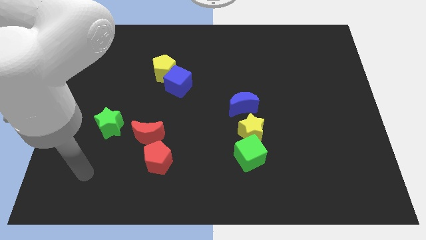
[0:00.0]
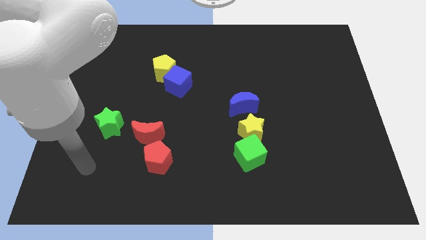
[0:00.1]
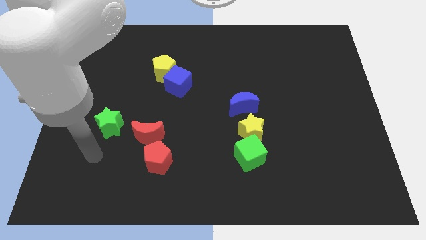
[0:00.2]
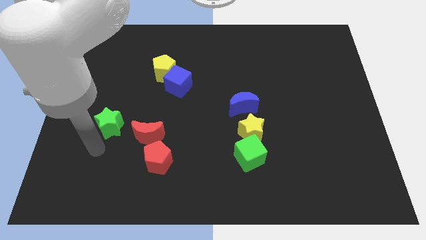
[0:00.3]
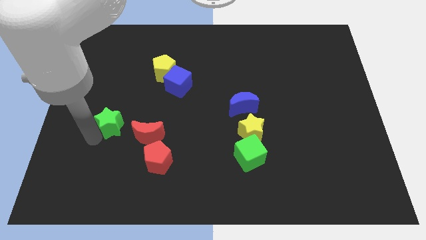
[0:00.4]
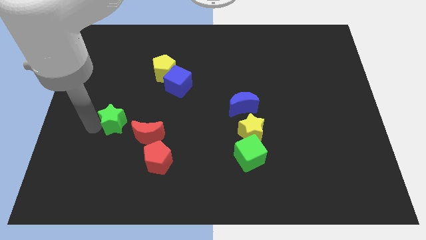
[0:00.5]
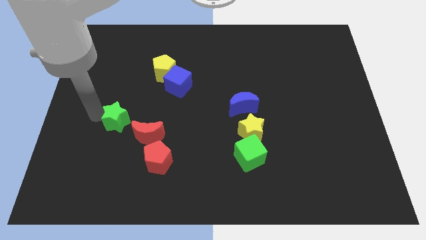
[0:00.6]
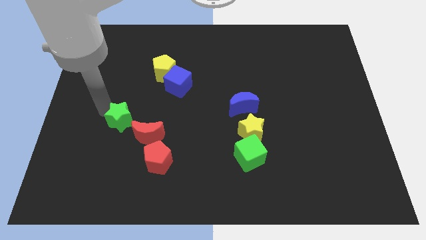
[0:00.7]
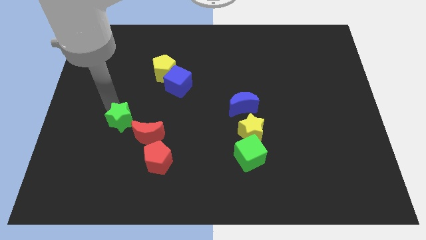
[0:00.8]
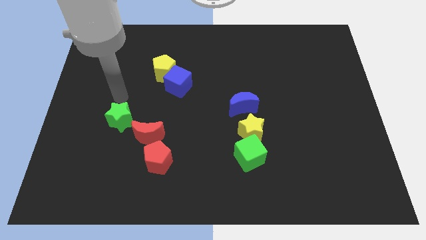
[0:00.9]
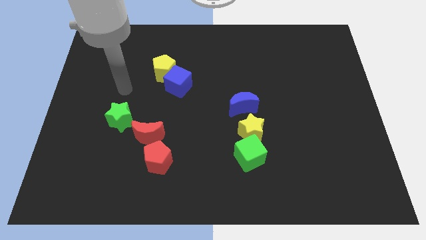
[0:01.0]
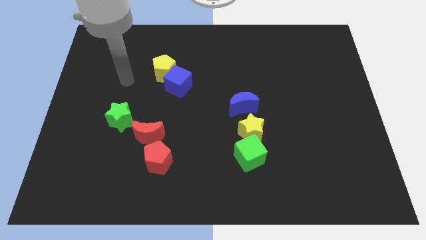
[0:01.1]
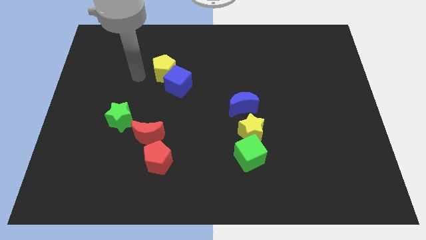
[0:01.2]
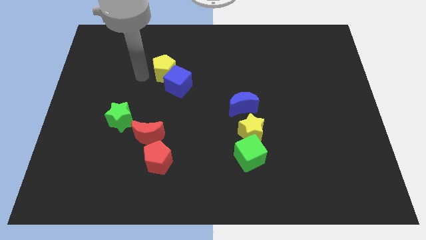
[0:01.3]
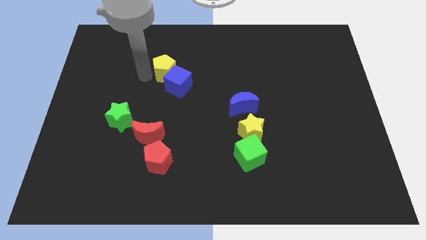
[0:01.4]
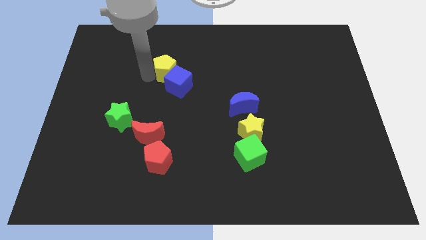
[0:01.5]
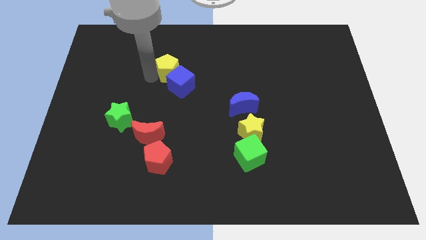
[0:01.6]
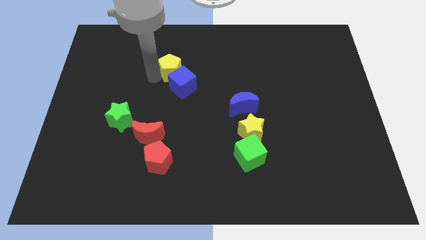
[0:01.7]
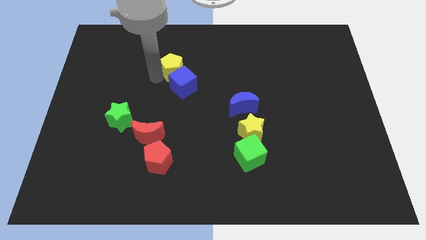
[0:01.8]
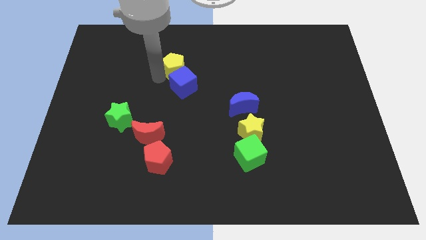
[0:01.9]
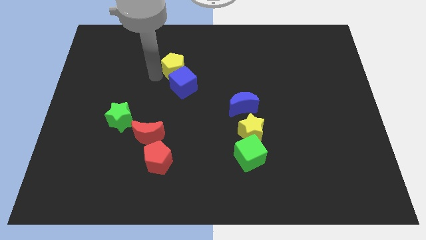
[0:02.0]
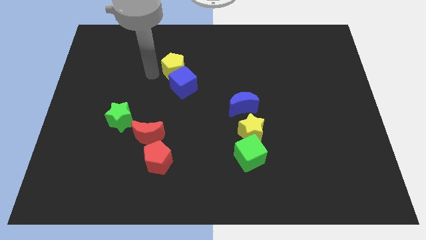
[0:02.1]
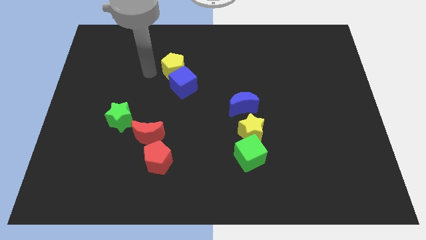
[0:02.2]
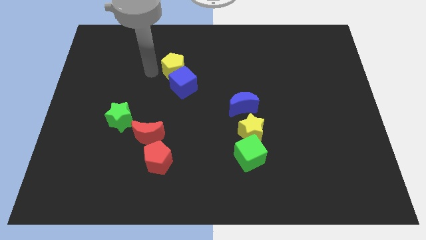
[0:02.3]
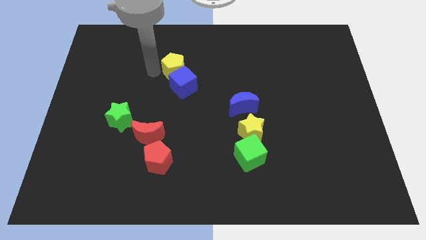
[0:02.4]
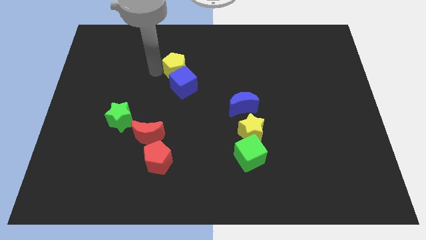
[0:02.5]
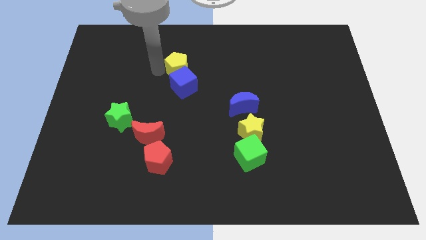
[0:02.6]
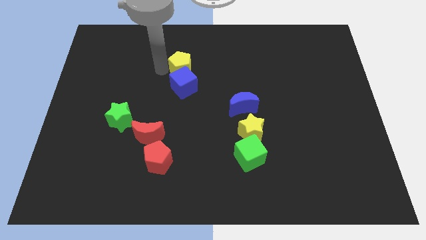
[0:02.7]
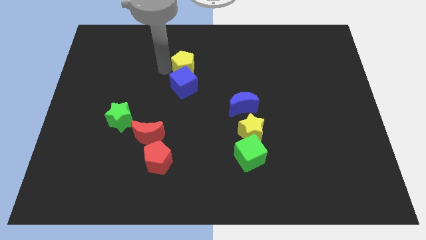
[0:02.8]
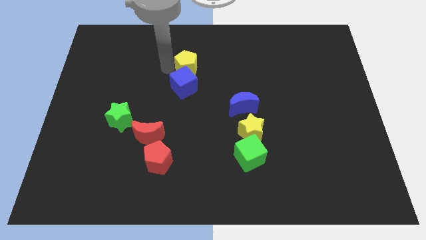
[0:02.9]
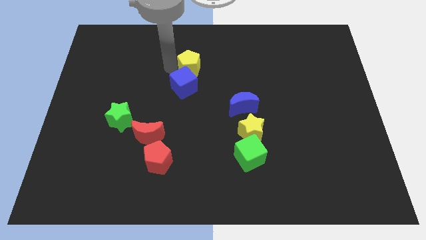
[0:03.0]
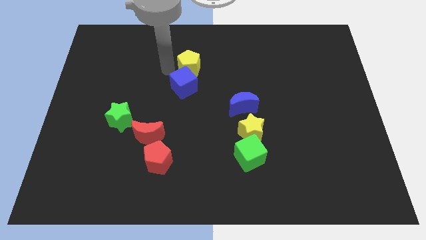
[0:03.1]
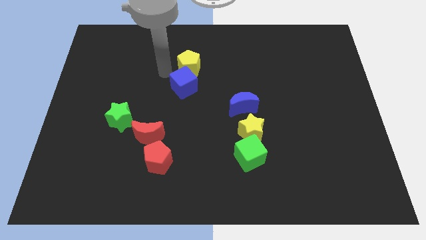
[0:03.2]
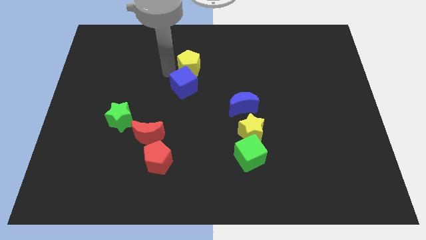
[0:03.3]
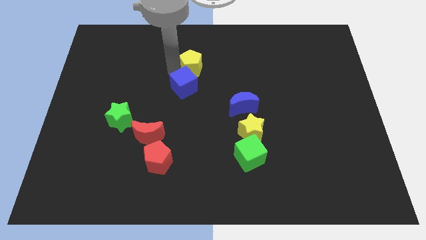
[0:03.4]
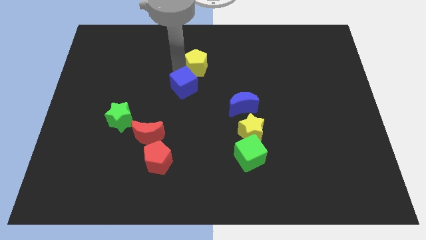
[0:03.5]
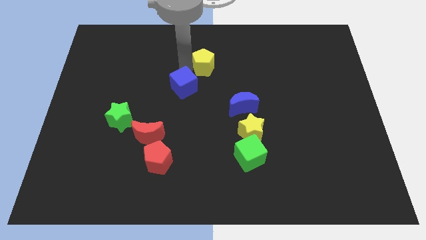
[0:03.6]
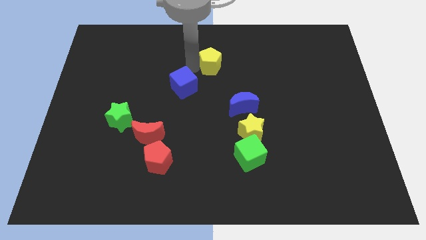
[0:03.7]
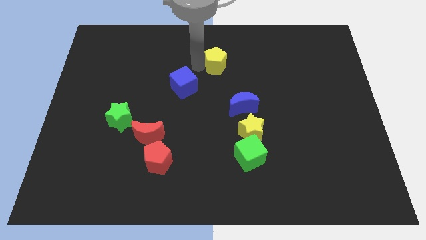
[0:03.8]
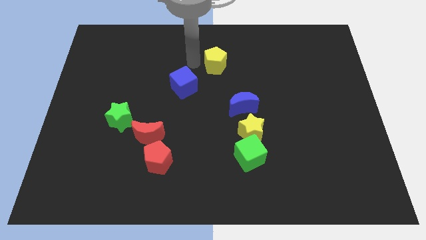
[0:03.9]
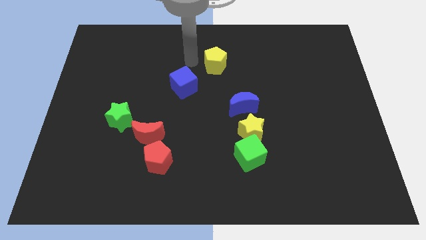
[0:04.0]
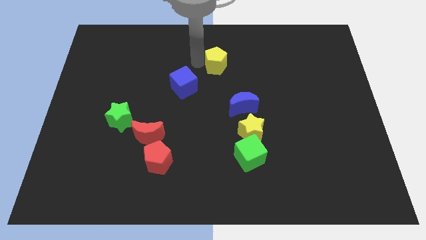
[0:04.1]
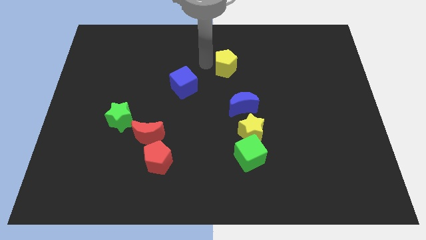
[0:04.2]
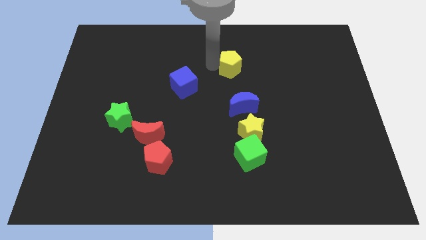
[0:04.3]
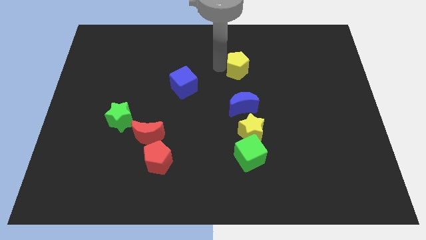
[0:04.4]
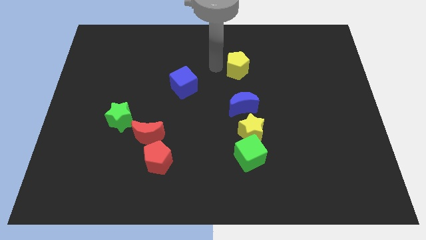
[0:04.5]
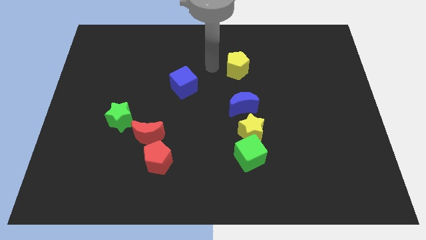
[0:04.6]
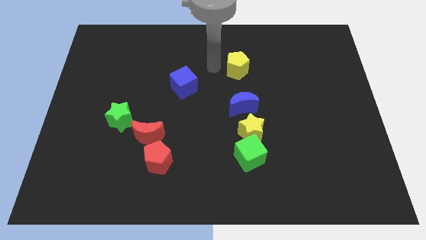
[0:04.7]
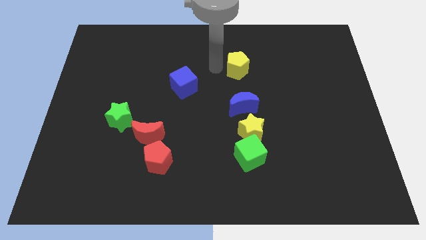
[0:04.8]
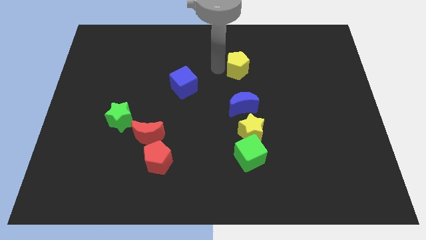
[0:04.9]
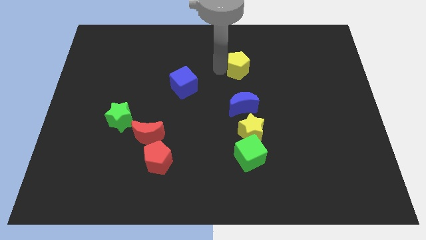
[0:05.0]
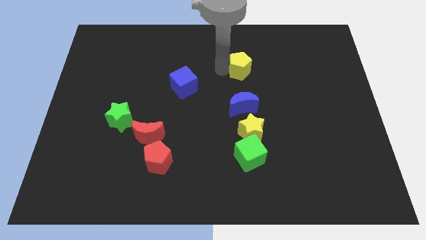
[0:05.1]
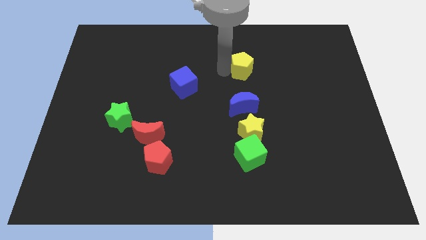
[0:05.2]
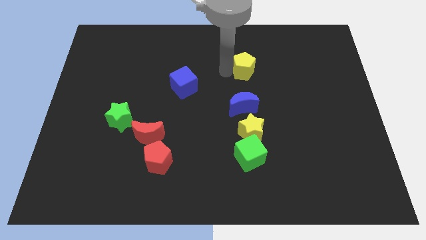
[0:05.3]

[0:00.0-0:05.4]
push the yellow pentagon to the right

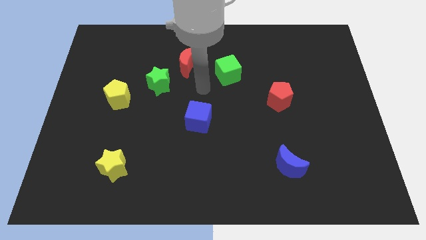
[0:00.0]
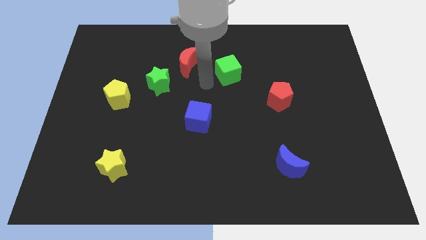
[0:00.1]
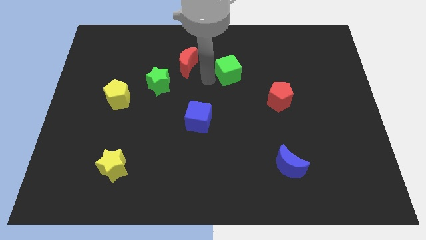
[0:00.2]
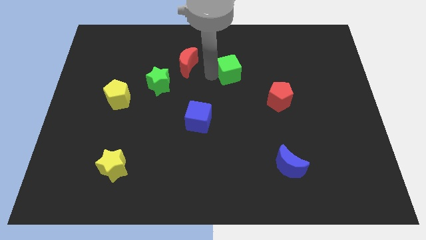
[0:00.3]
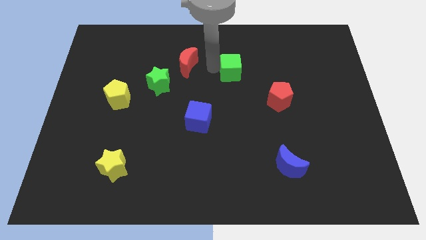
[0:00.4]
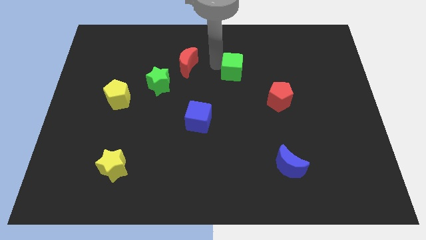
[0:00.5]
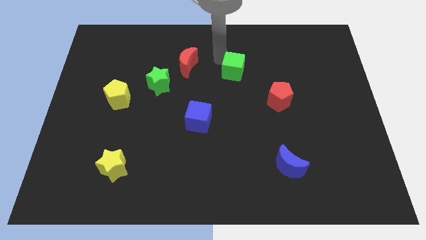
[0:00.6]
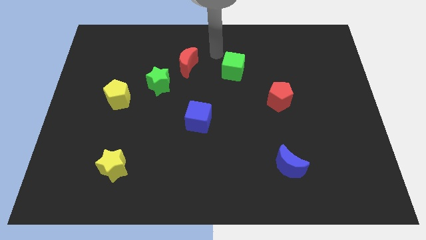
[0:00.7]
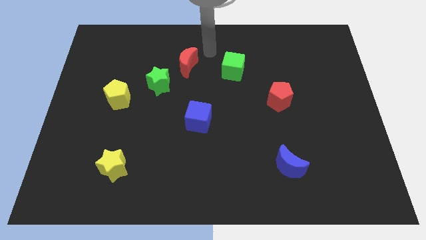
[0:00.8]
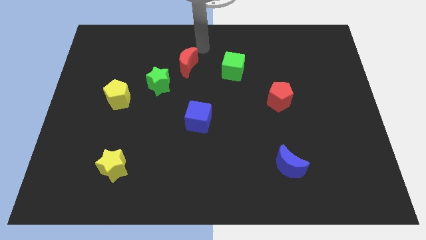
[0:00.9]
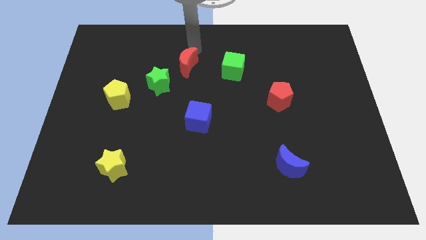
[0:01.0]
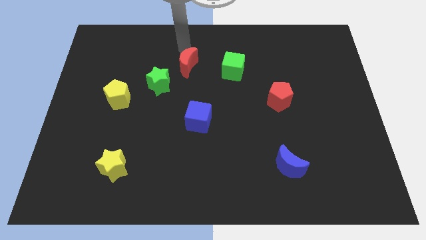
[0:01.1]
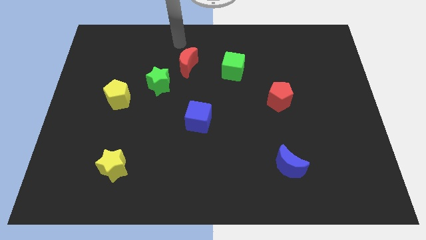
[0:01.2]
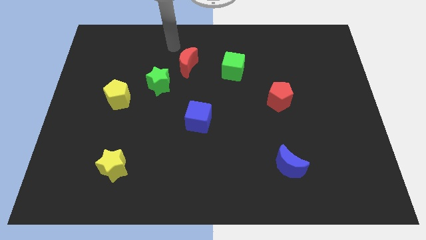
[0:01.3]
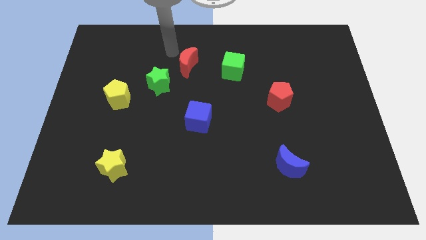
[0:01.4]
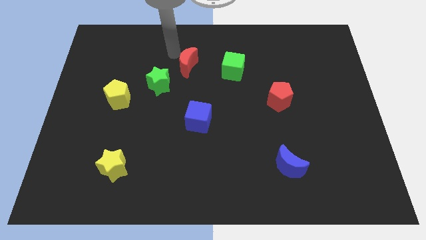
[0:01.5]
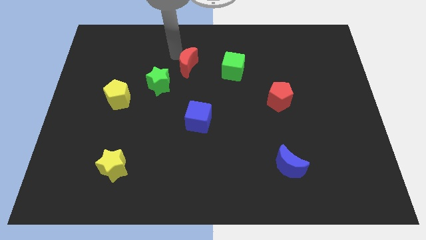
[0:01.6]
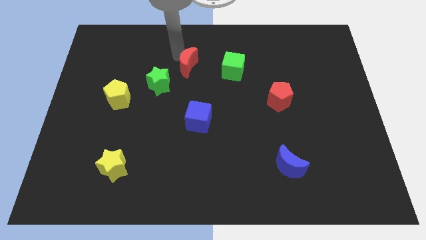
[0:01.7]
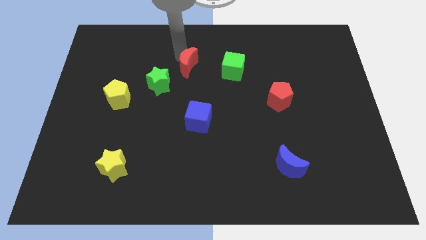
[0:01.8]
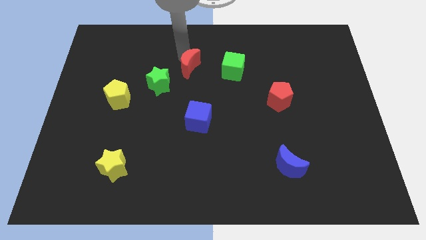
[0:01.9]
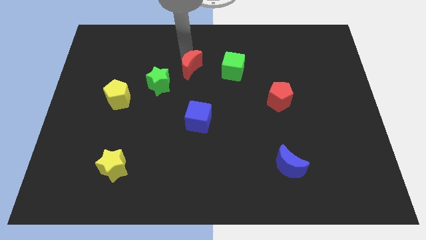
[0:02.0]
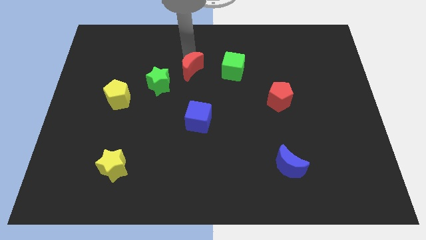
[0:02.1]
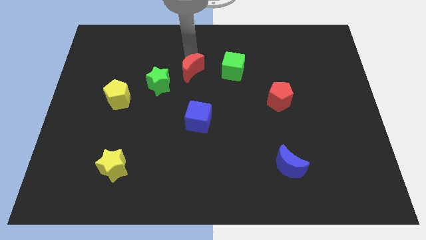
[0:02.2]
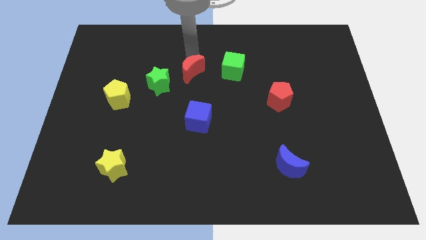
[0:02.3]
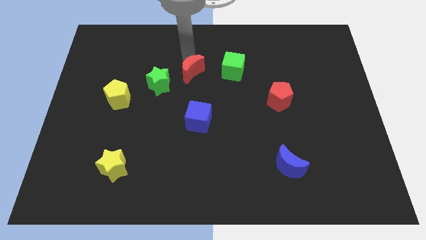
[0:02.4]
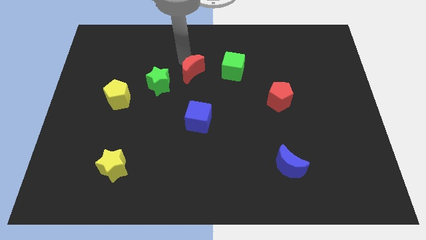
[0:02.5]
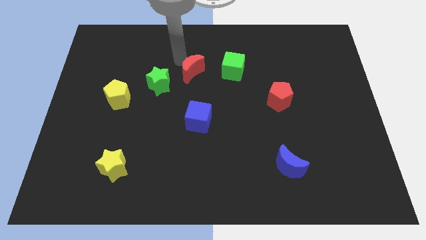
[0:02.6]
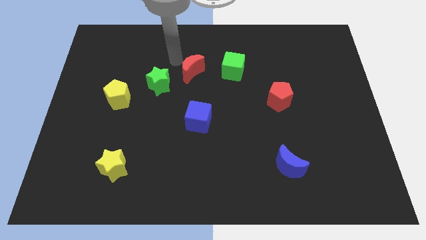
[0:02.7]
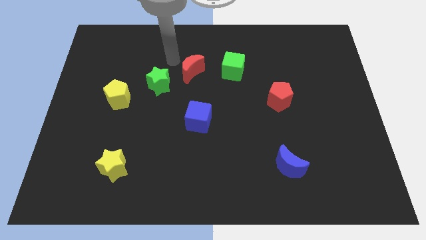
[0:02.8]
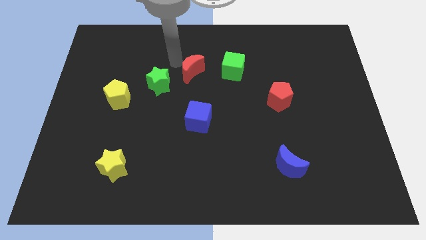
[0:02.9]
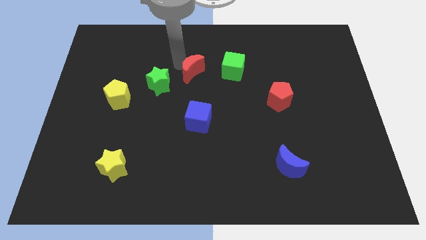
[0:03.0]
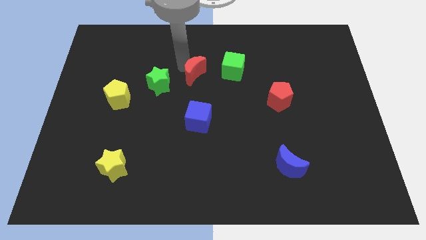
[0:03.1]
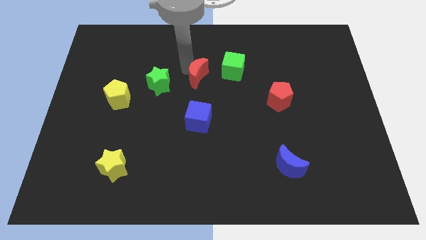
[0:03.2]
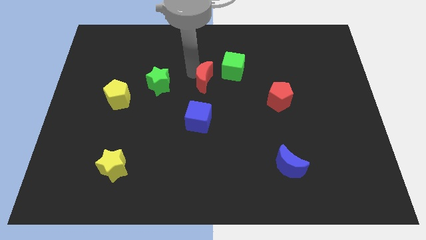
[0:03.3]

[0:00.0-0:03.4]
move the red moon down and to the right diagonally slightly
